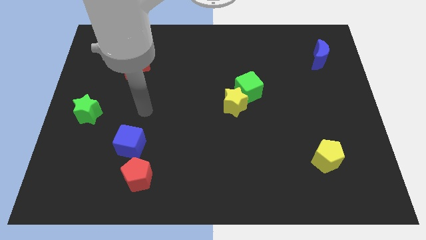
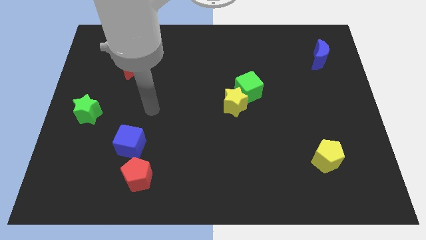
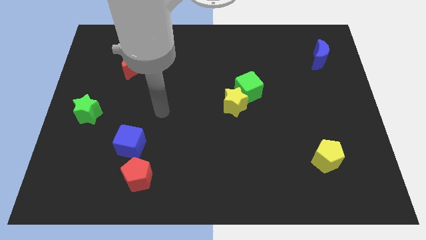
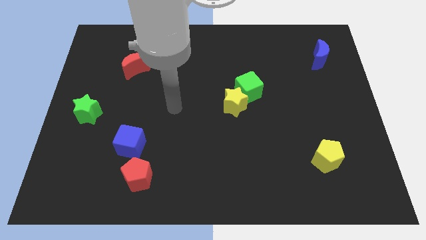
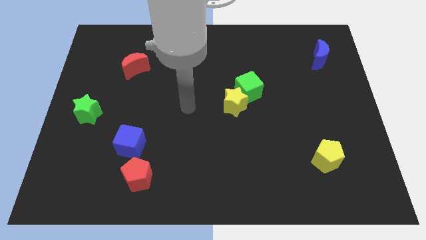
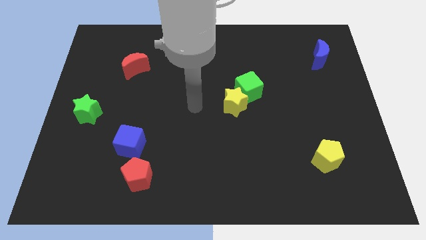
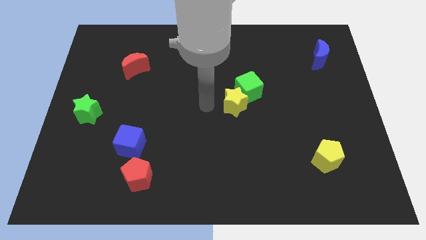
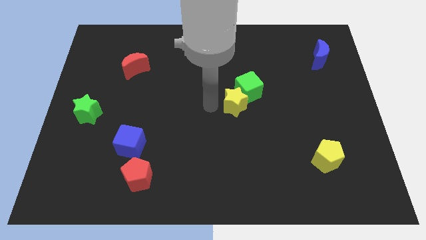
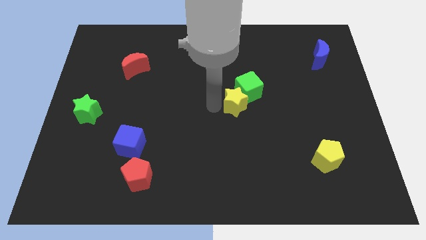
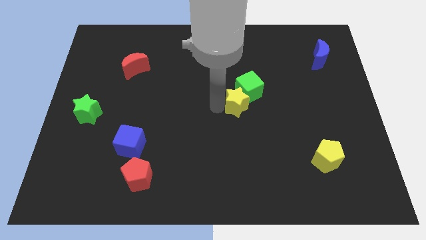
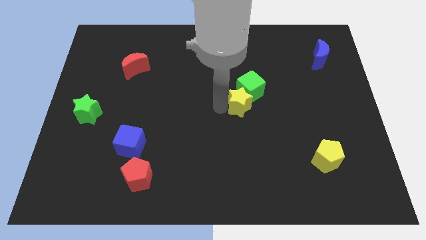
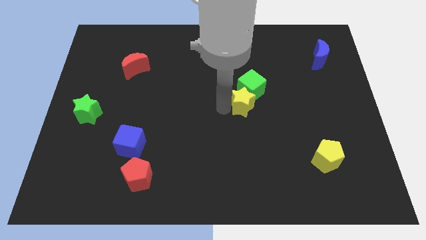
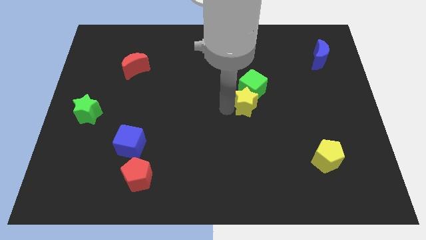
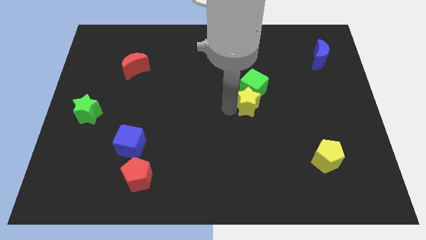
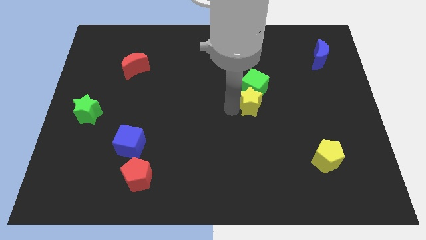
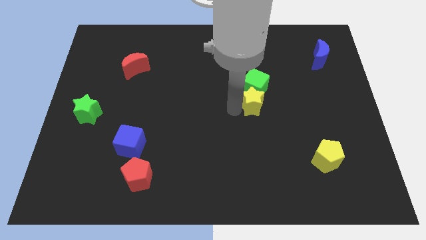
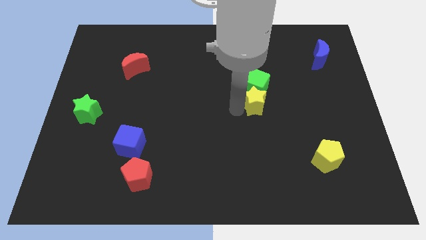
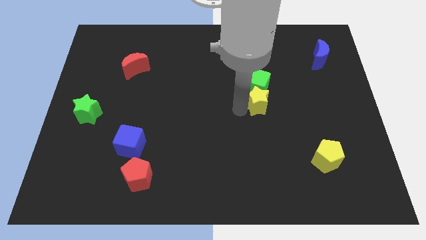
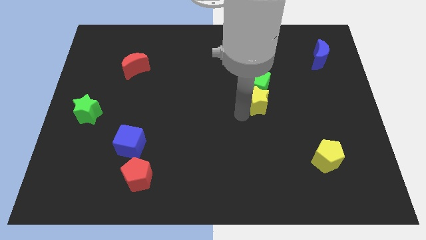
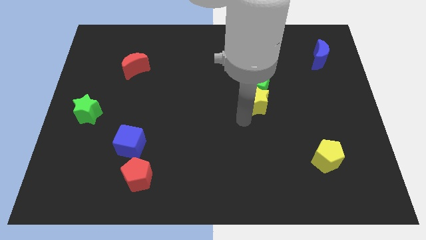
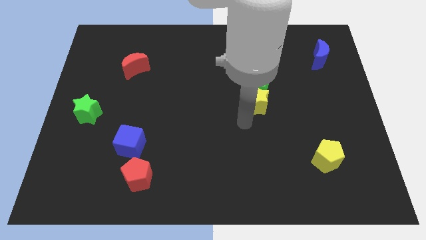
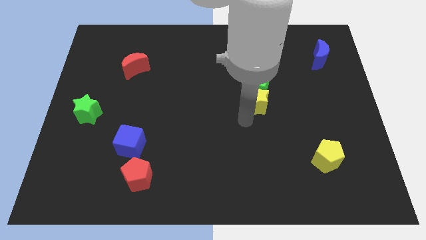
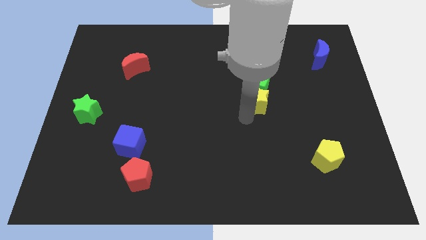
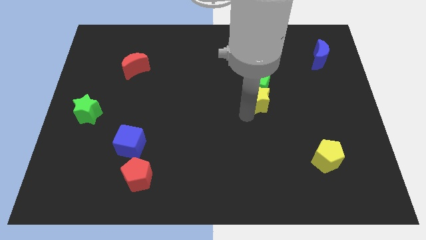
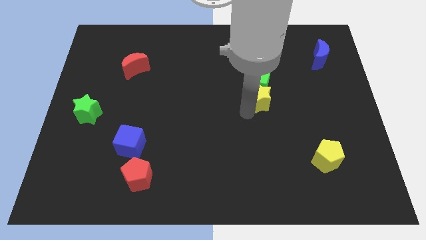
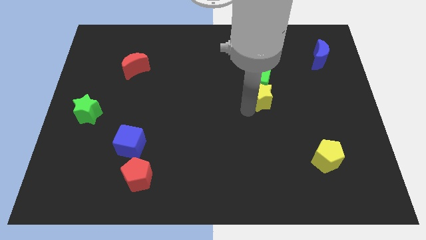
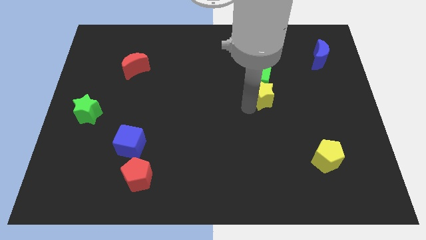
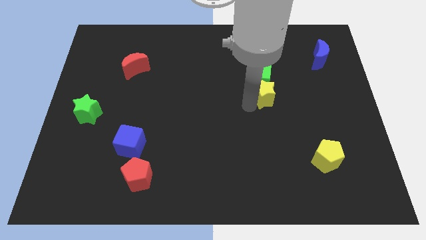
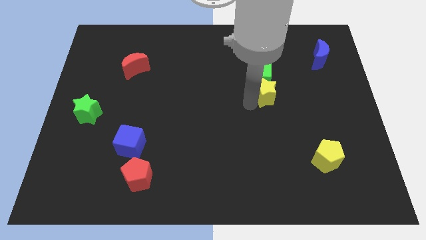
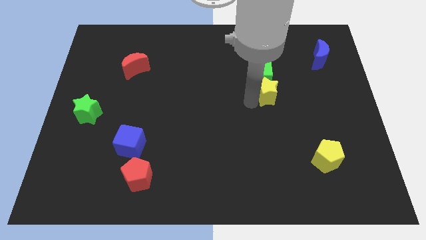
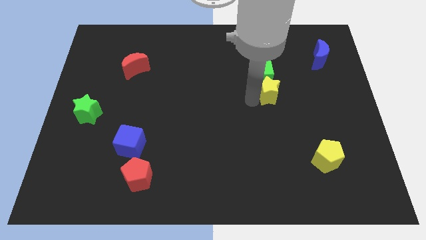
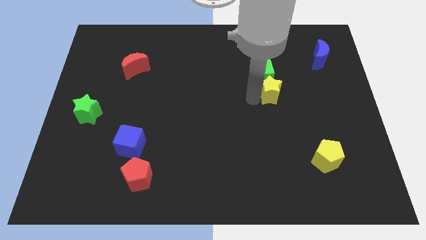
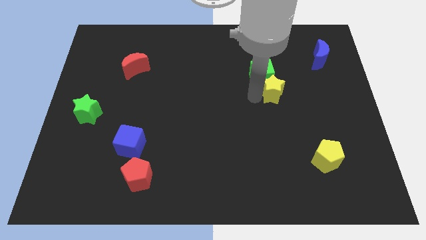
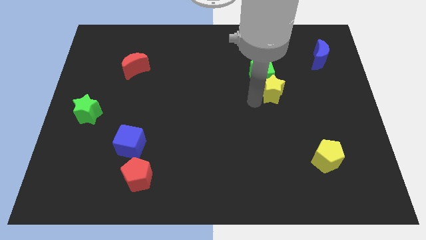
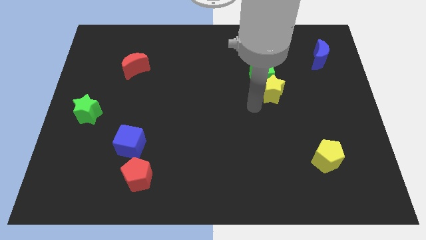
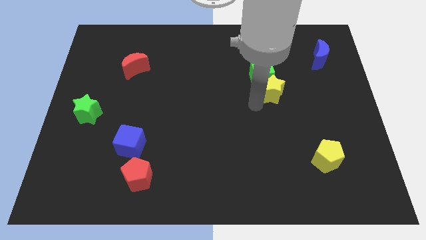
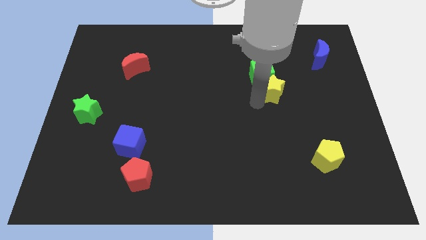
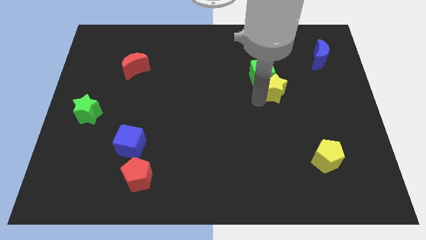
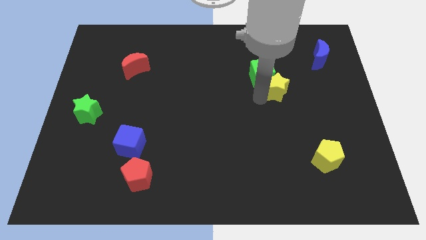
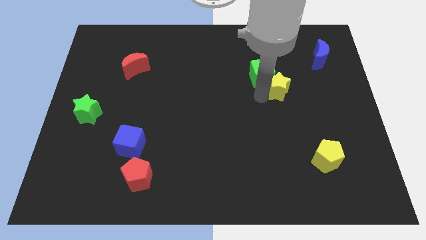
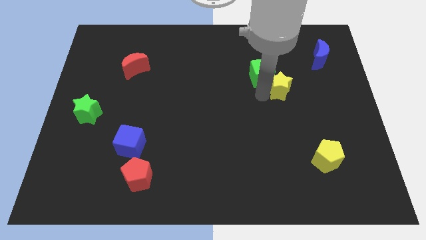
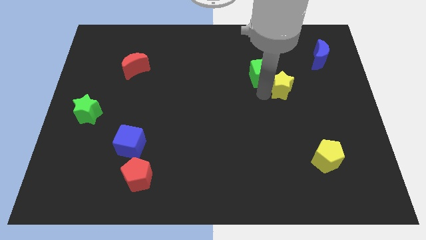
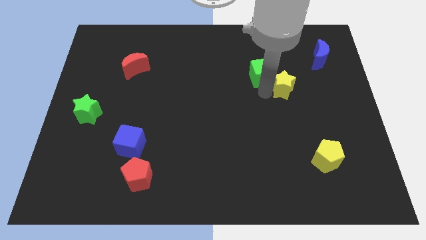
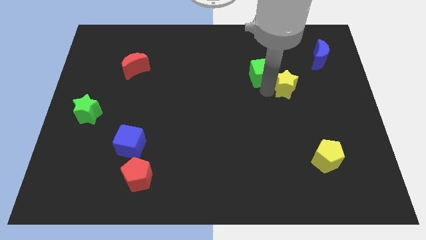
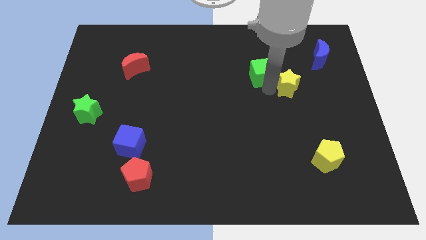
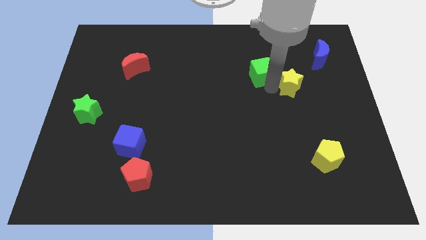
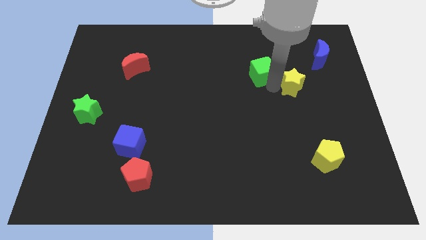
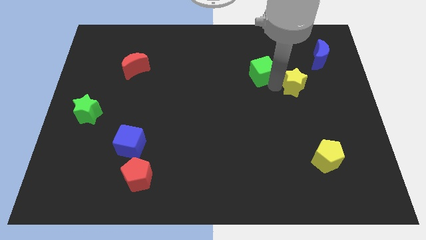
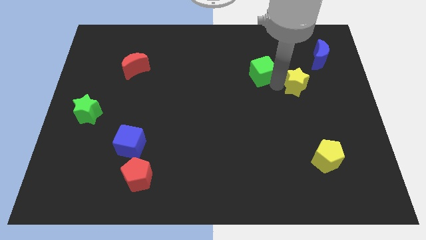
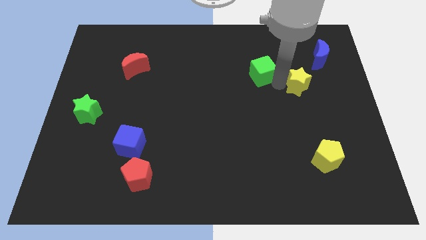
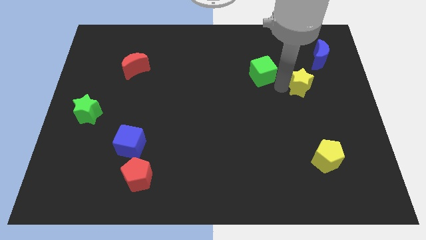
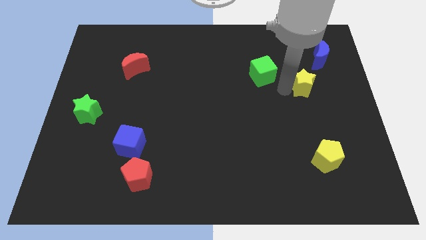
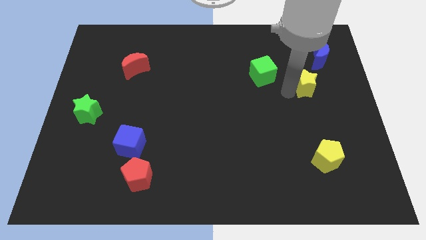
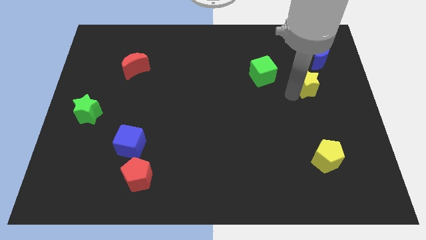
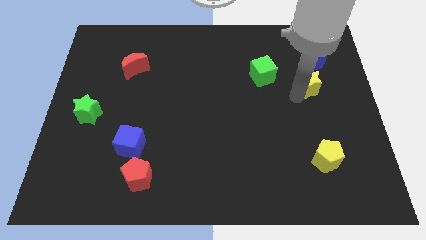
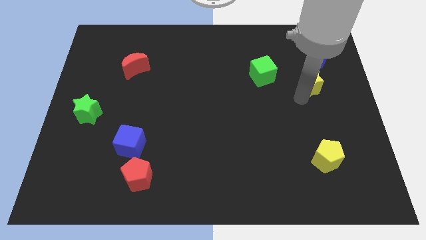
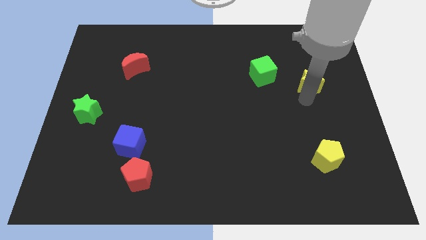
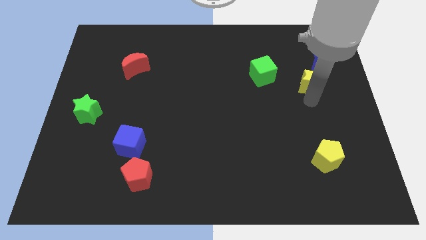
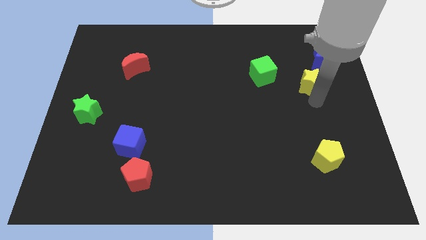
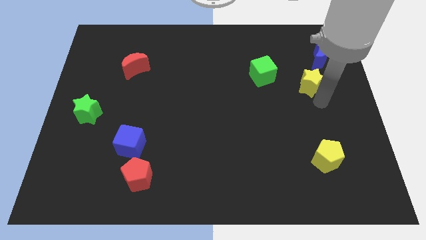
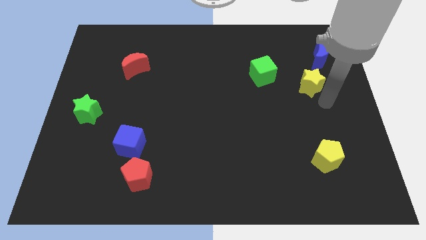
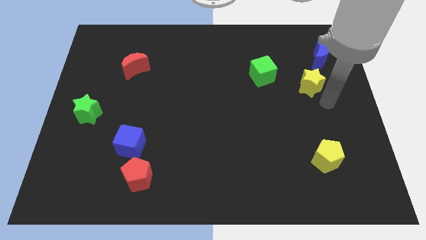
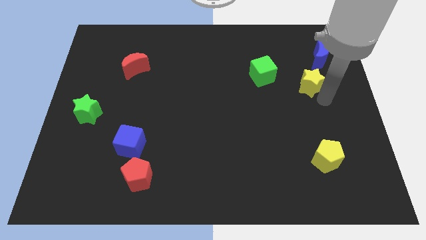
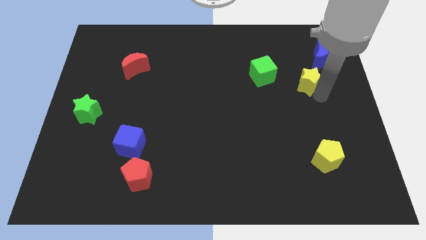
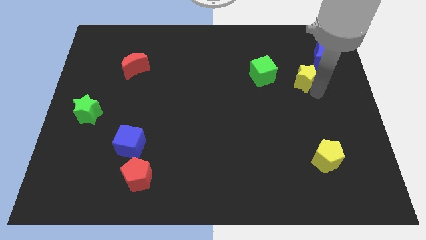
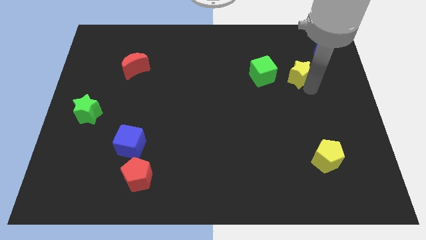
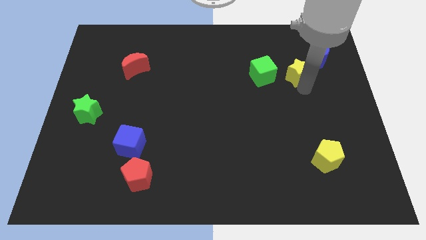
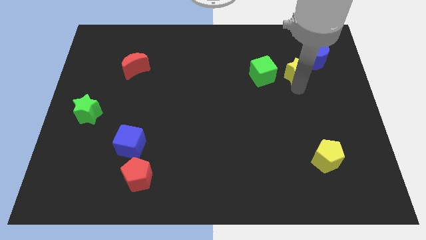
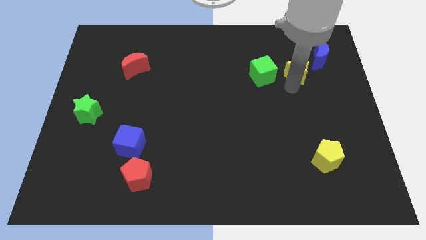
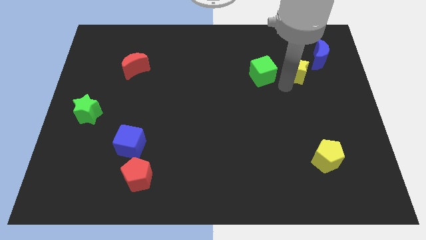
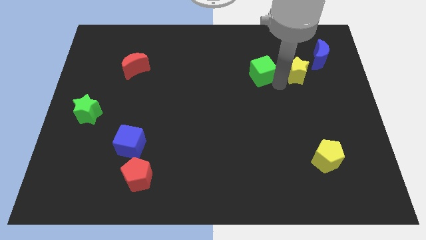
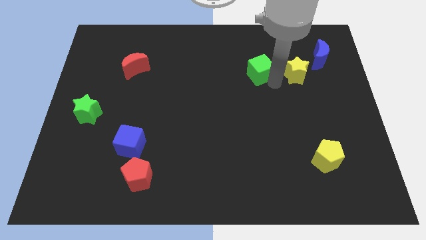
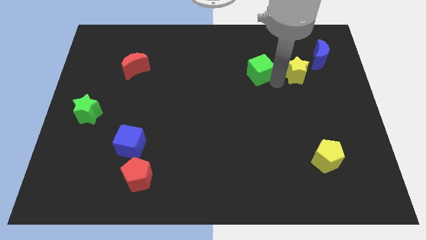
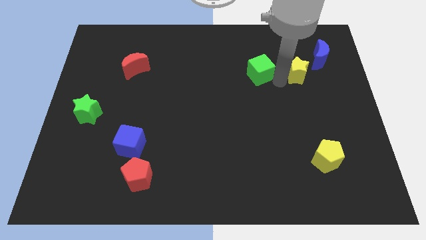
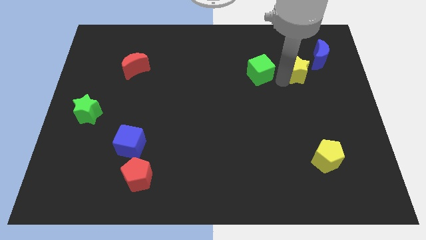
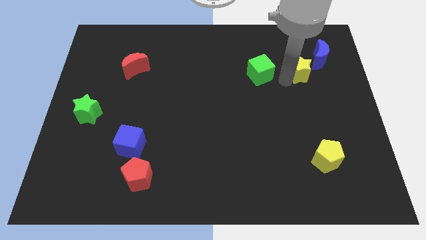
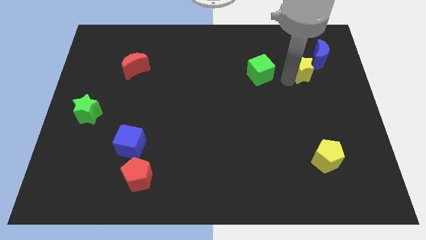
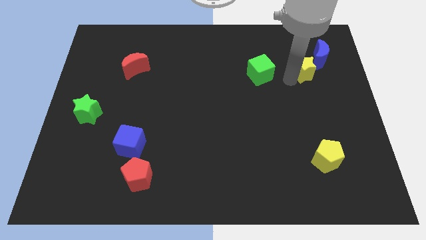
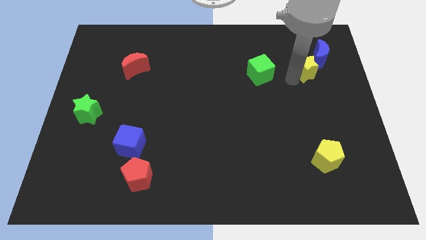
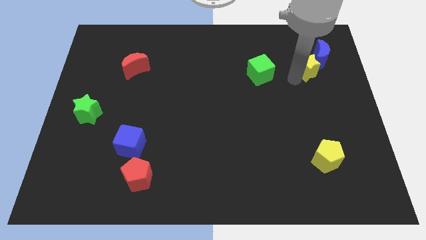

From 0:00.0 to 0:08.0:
move the yellow star towards the blue moon
